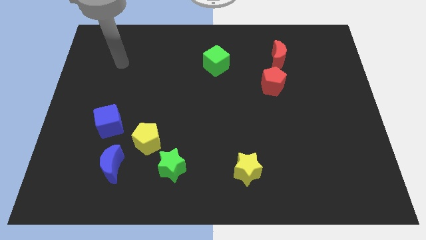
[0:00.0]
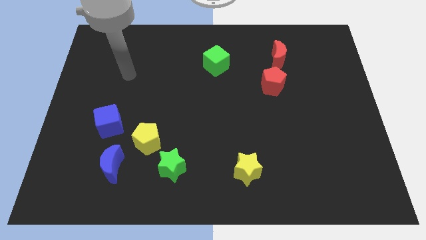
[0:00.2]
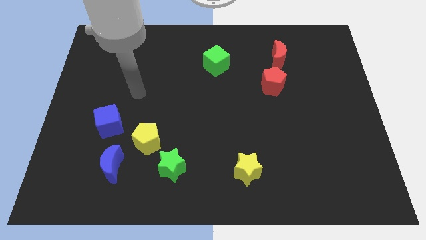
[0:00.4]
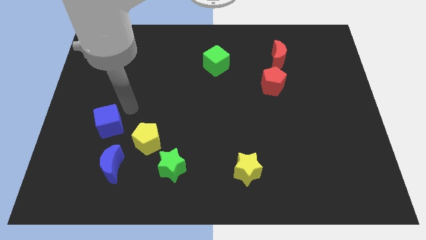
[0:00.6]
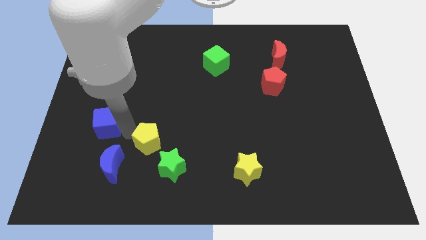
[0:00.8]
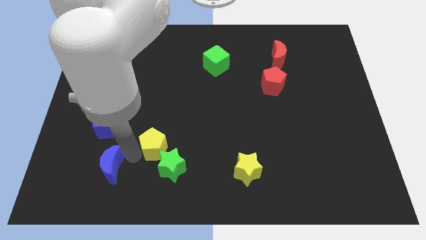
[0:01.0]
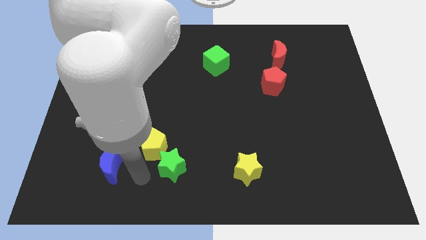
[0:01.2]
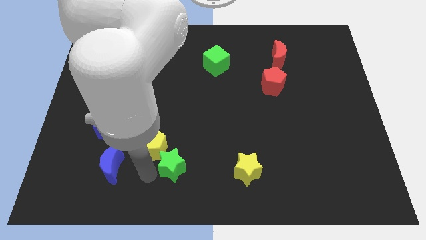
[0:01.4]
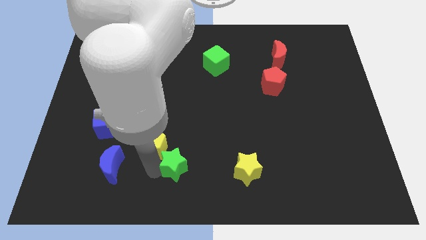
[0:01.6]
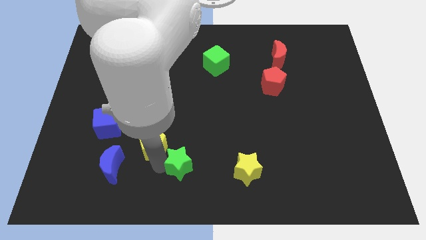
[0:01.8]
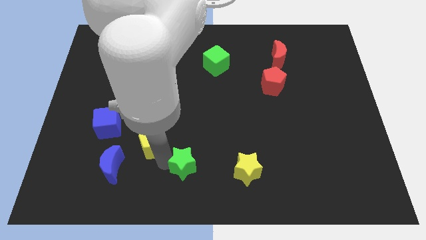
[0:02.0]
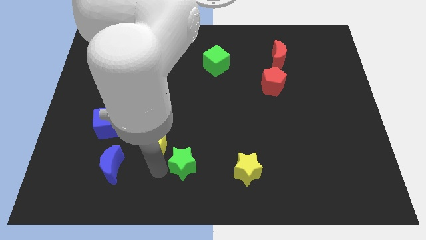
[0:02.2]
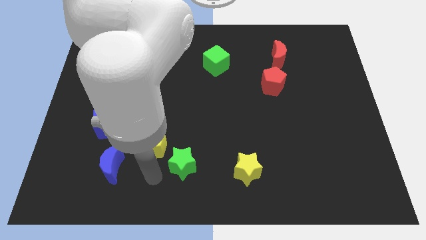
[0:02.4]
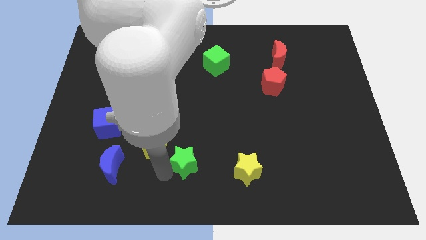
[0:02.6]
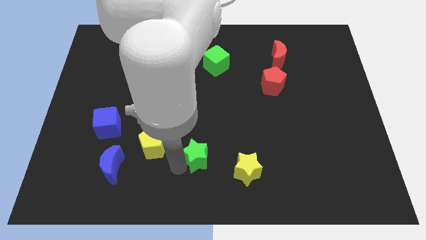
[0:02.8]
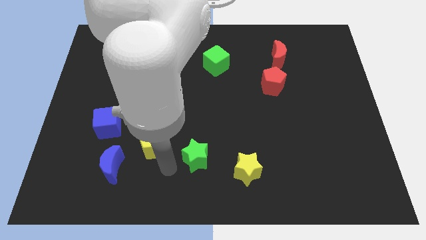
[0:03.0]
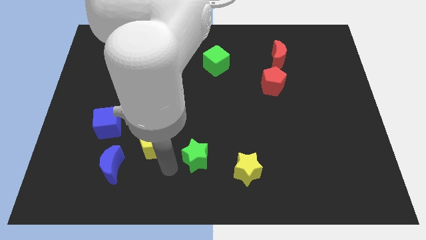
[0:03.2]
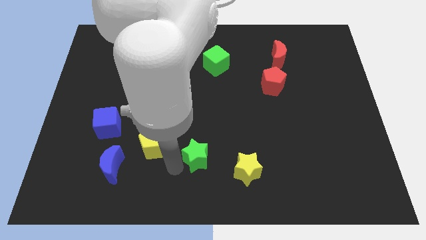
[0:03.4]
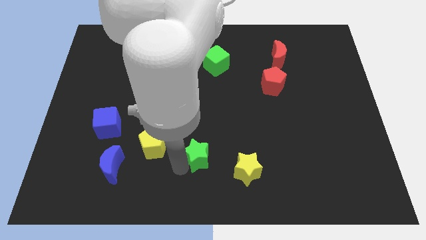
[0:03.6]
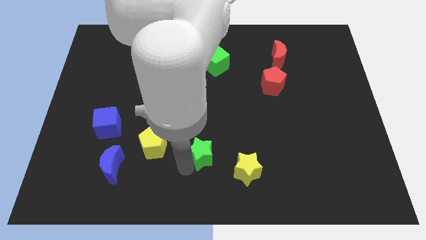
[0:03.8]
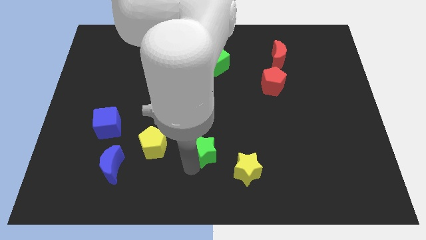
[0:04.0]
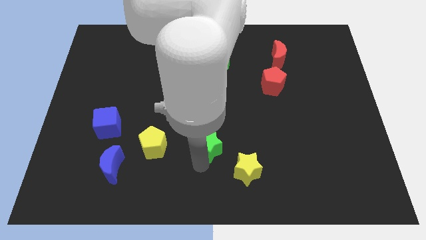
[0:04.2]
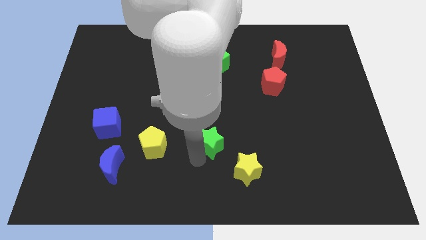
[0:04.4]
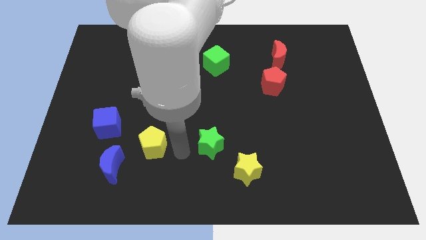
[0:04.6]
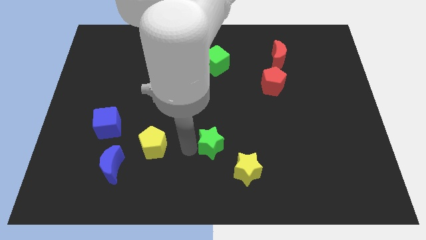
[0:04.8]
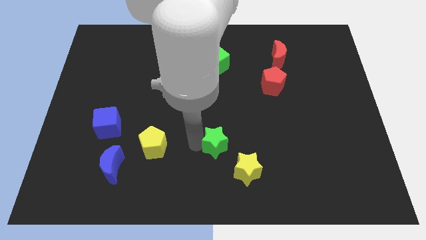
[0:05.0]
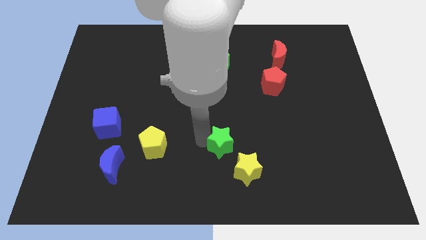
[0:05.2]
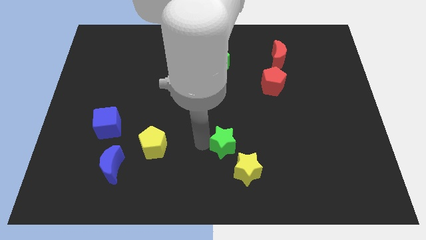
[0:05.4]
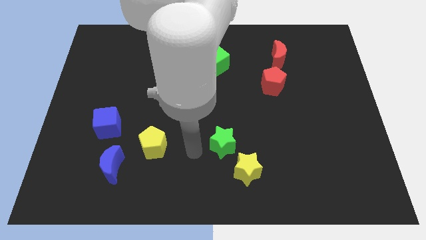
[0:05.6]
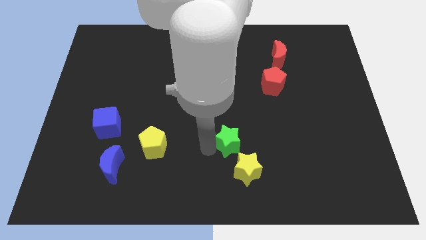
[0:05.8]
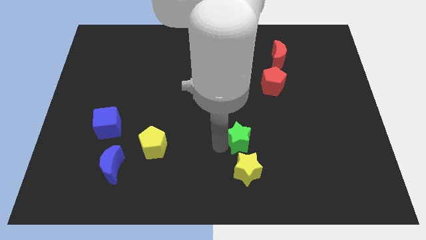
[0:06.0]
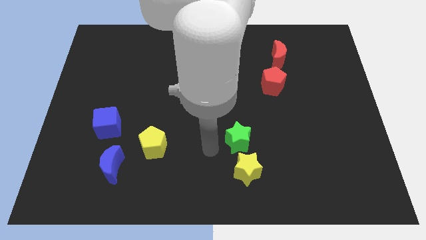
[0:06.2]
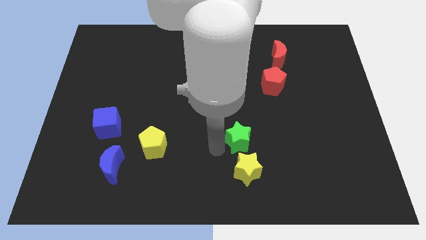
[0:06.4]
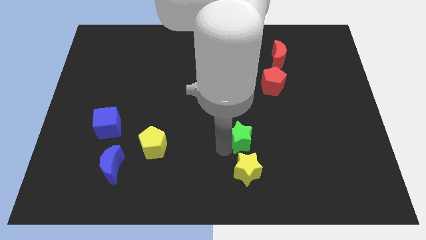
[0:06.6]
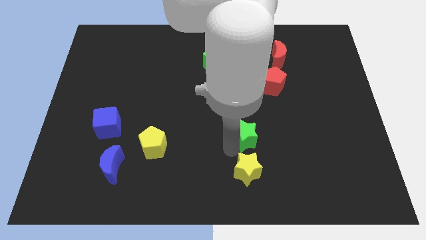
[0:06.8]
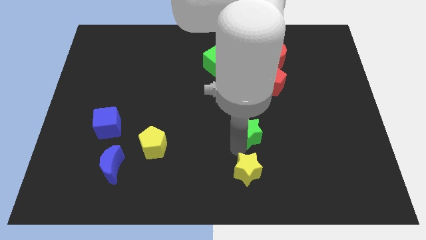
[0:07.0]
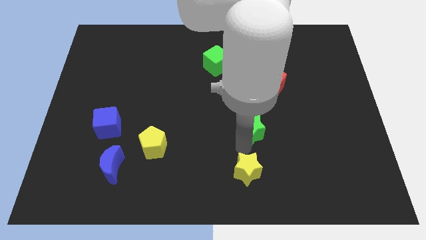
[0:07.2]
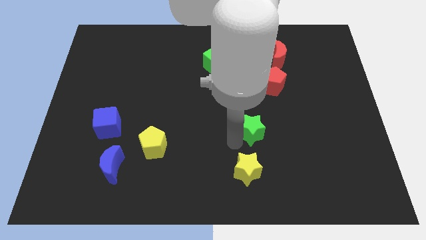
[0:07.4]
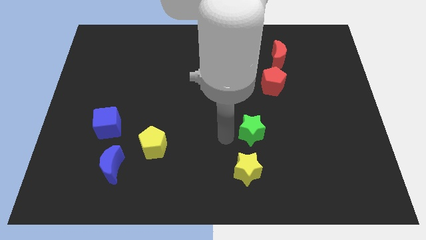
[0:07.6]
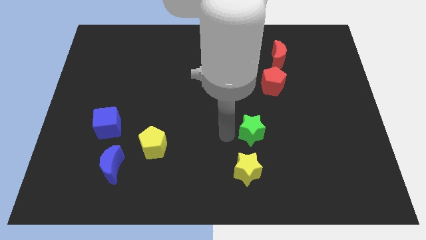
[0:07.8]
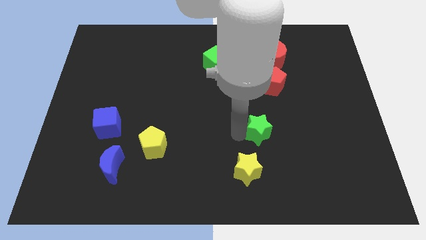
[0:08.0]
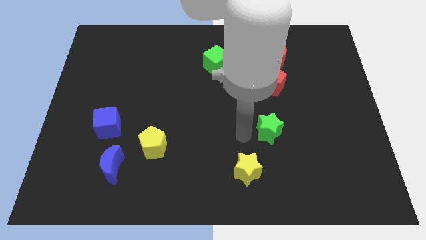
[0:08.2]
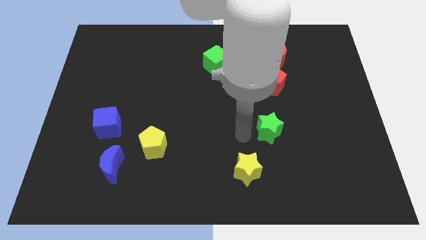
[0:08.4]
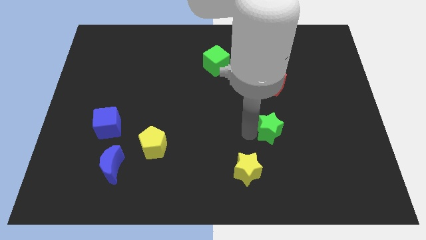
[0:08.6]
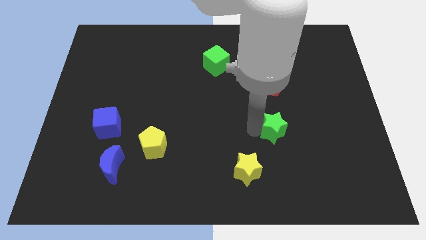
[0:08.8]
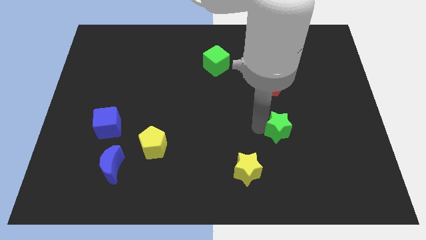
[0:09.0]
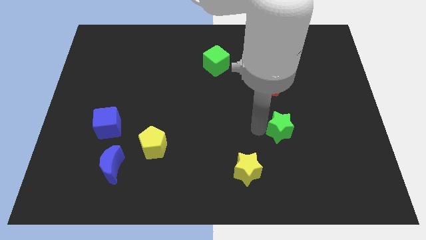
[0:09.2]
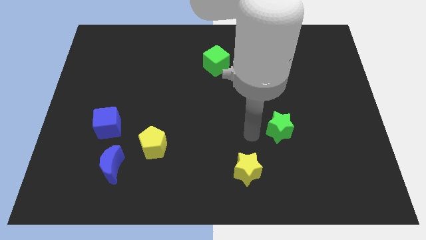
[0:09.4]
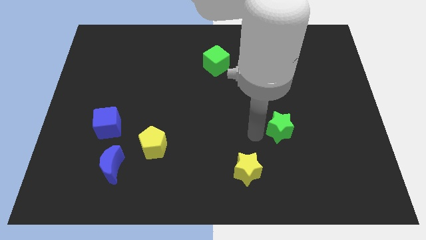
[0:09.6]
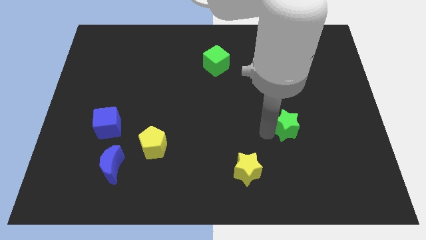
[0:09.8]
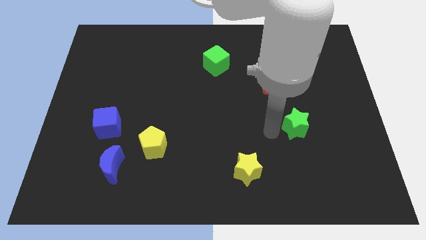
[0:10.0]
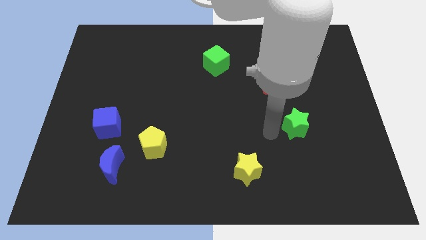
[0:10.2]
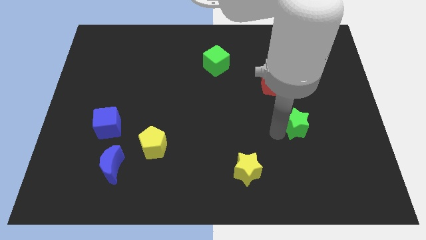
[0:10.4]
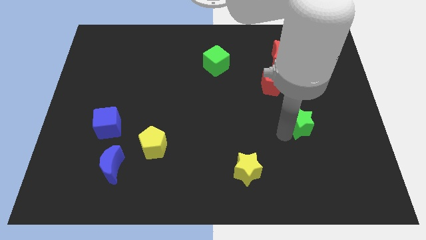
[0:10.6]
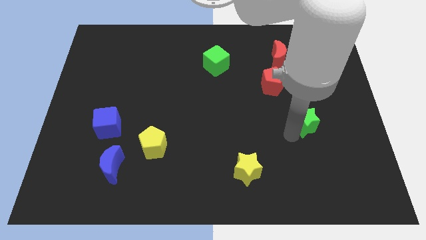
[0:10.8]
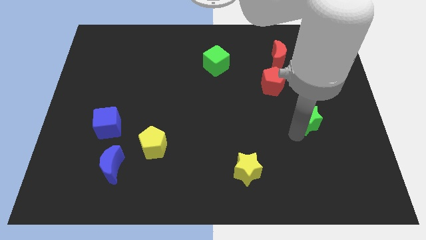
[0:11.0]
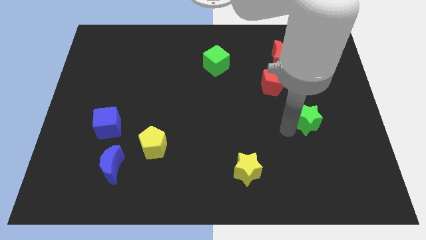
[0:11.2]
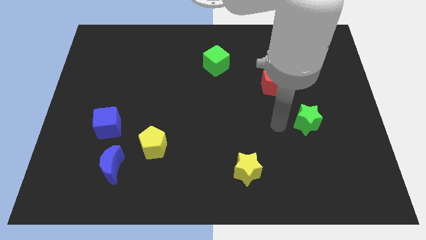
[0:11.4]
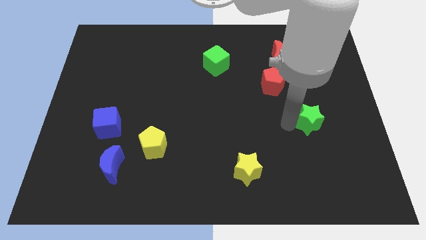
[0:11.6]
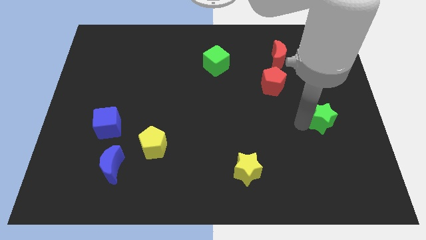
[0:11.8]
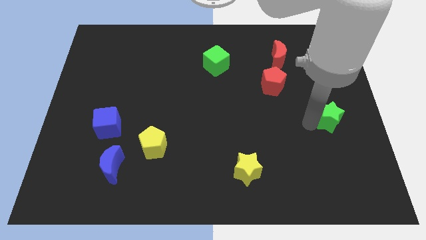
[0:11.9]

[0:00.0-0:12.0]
slide the green star to the right side of the board

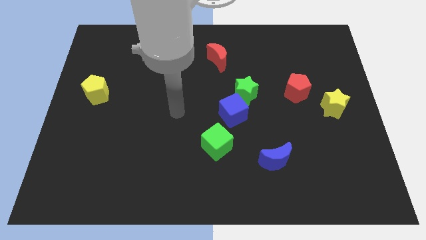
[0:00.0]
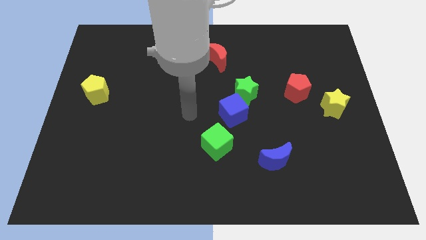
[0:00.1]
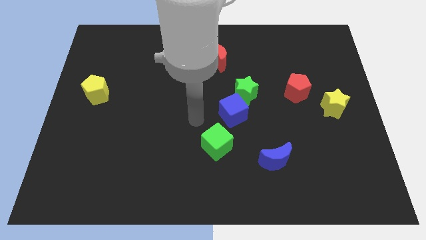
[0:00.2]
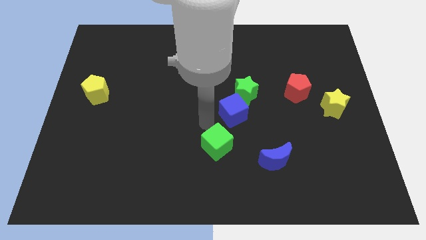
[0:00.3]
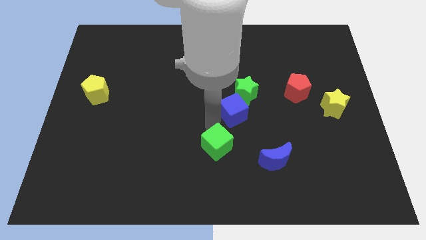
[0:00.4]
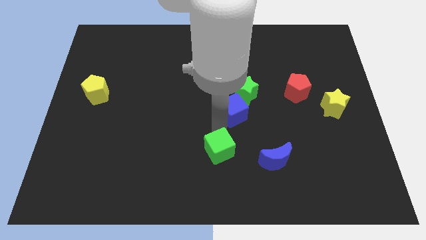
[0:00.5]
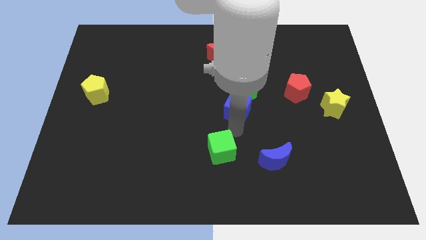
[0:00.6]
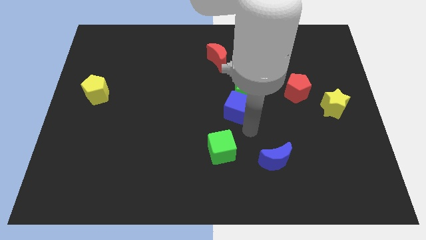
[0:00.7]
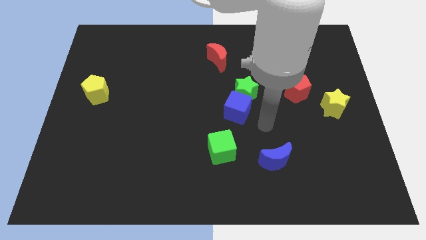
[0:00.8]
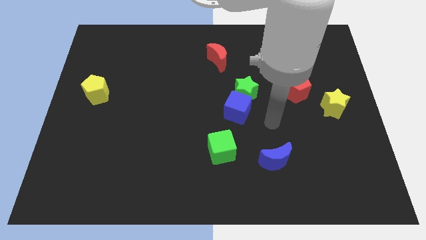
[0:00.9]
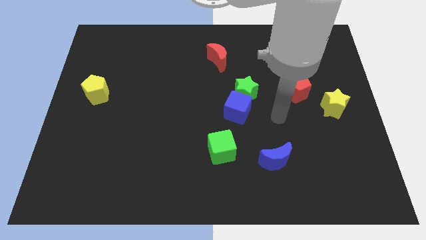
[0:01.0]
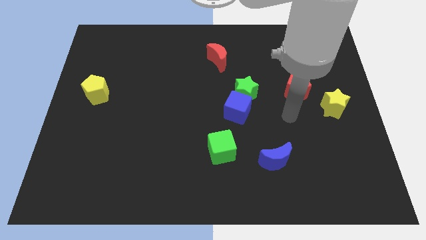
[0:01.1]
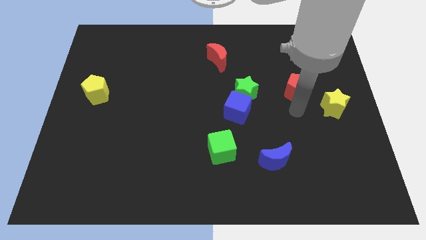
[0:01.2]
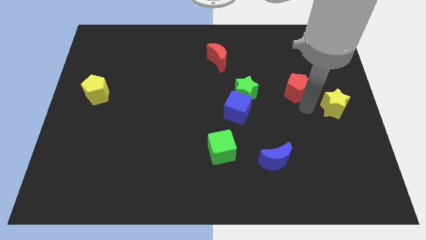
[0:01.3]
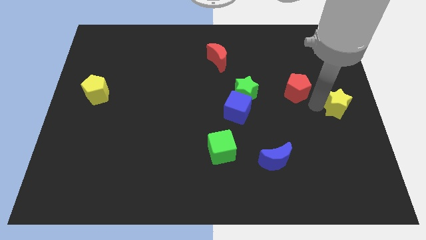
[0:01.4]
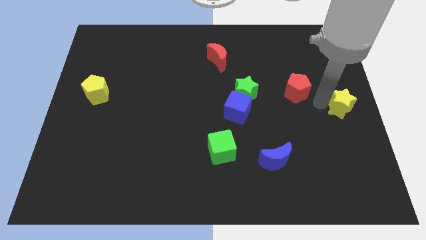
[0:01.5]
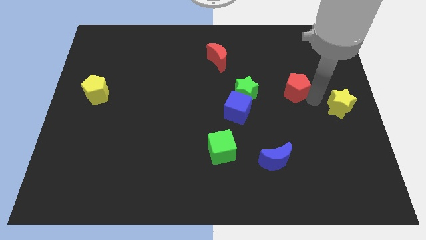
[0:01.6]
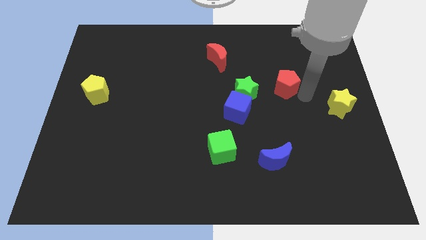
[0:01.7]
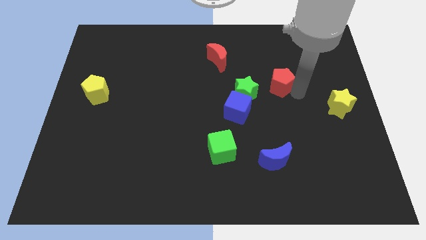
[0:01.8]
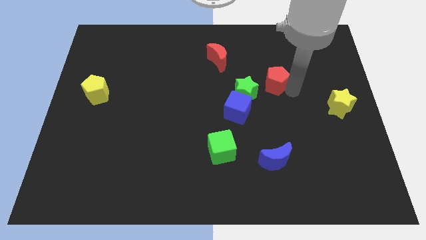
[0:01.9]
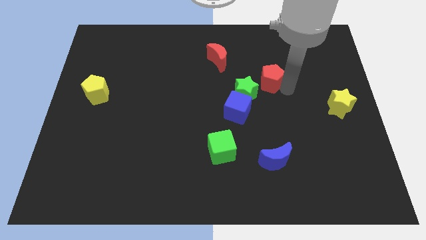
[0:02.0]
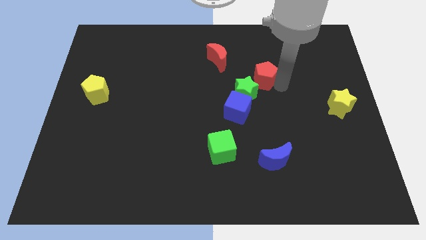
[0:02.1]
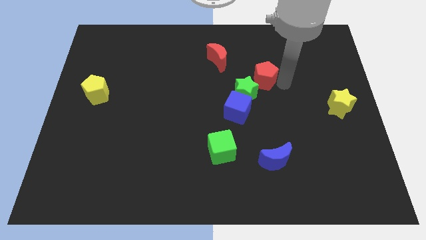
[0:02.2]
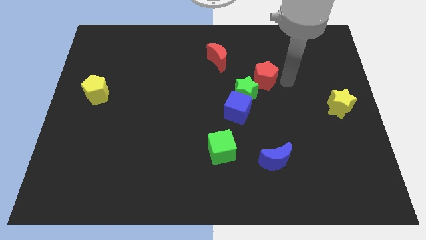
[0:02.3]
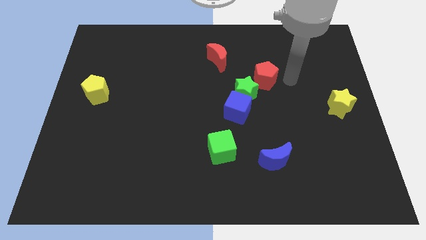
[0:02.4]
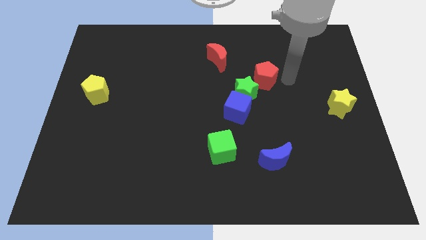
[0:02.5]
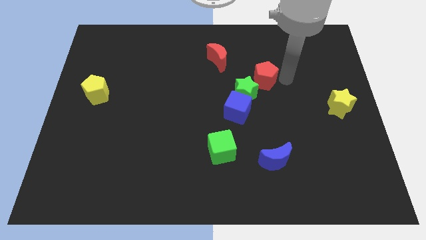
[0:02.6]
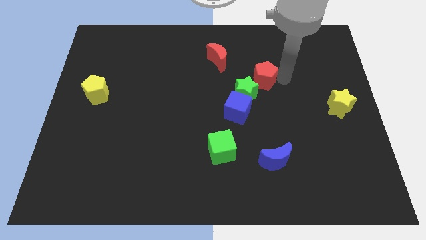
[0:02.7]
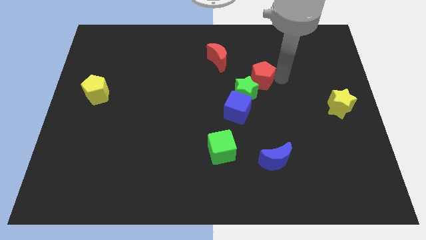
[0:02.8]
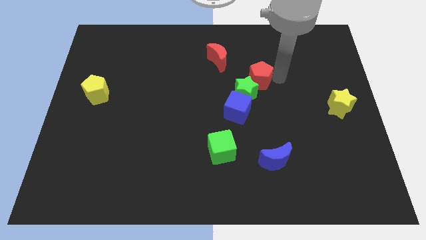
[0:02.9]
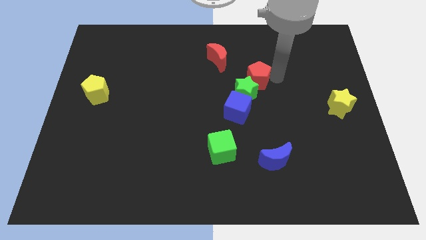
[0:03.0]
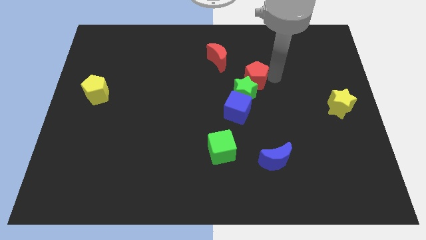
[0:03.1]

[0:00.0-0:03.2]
put the red pentagon to the center of the board
